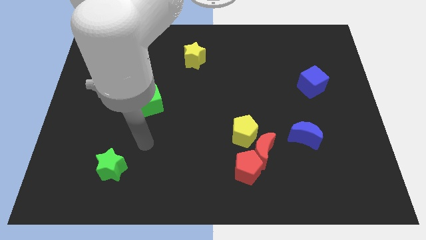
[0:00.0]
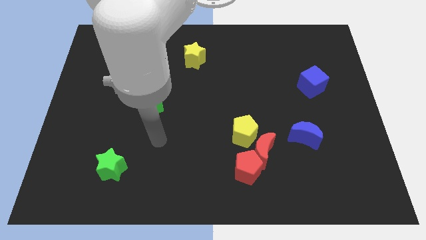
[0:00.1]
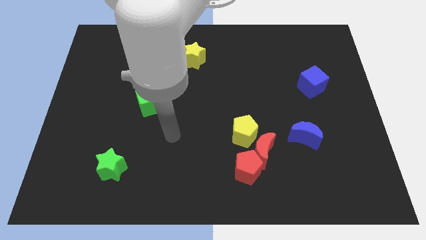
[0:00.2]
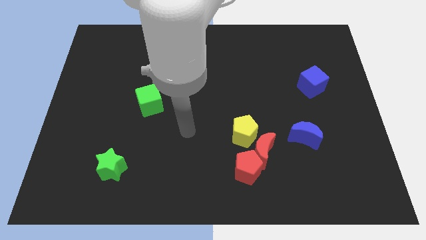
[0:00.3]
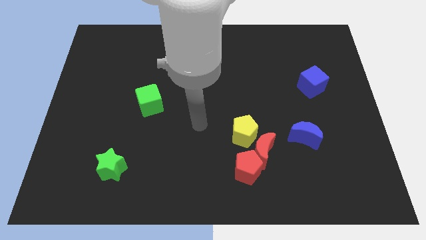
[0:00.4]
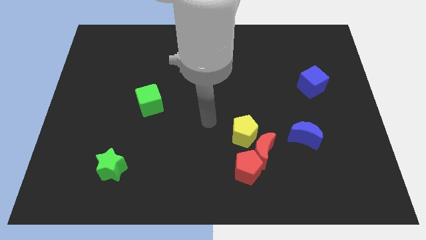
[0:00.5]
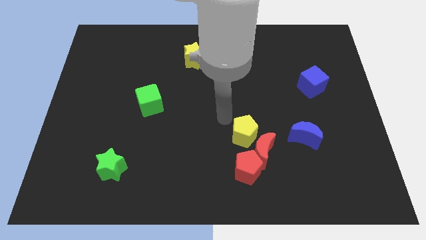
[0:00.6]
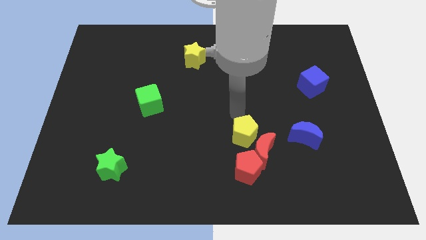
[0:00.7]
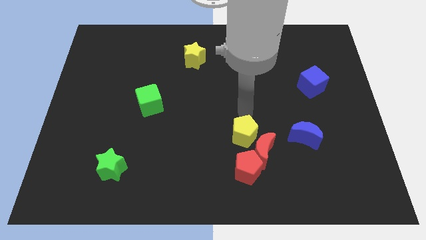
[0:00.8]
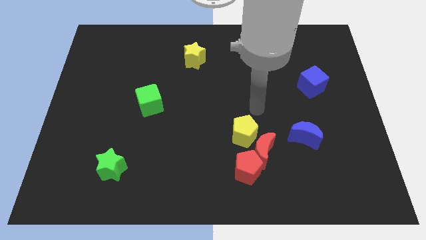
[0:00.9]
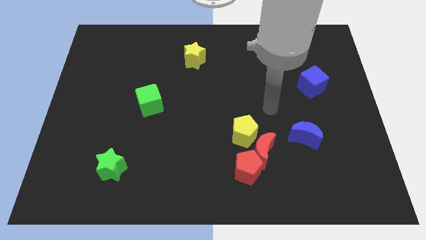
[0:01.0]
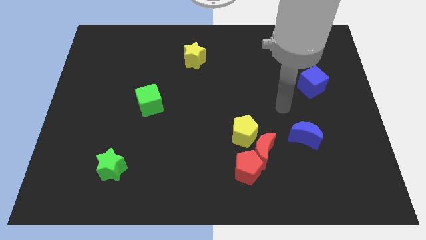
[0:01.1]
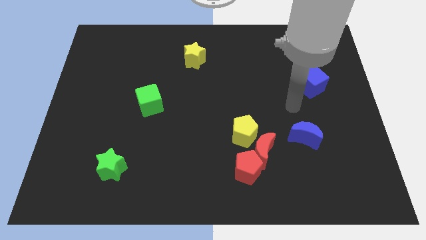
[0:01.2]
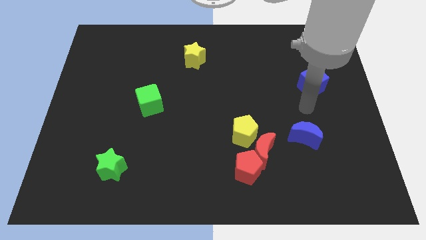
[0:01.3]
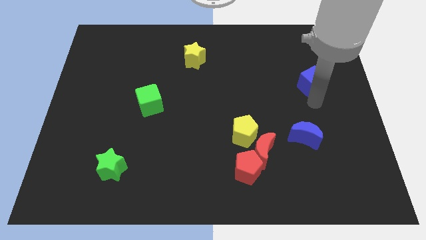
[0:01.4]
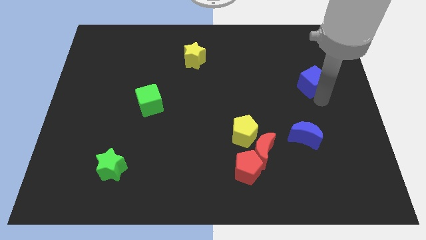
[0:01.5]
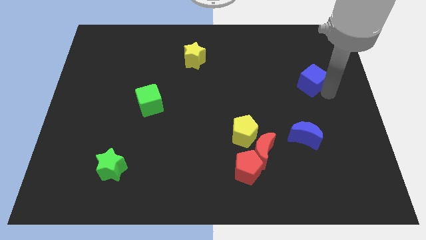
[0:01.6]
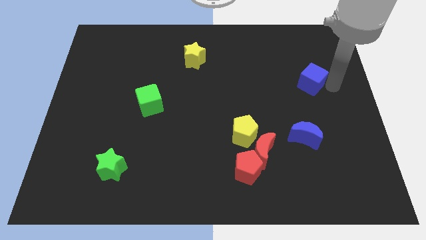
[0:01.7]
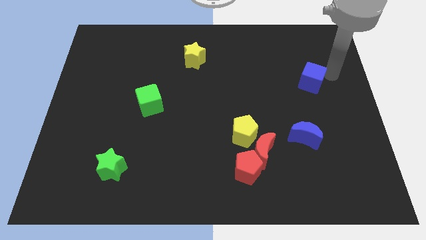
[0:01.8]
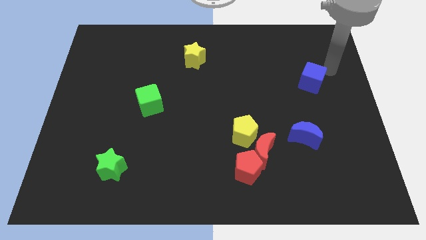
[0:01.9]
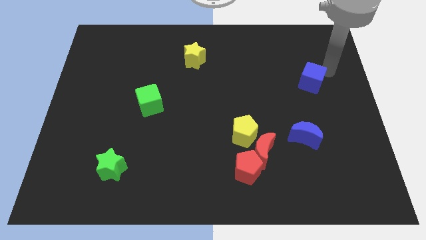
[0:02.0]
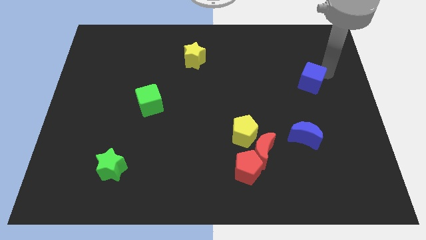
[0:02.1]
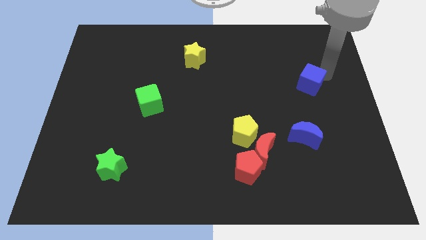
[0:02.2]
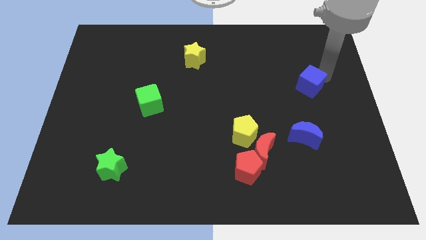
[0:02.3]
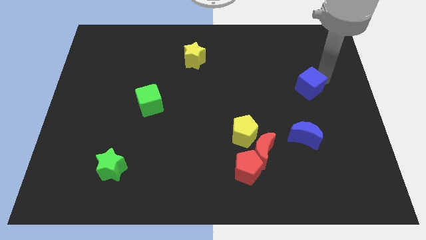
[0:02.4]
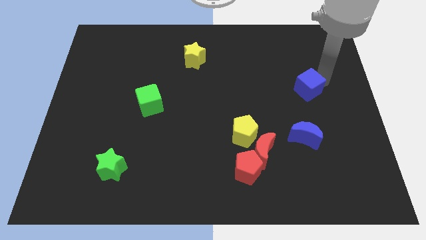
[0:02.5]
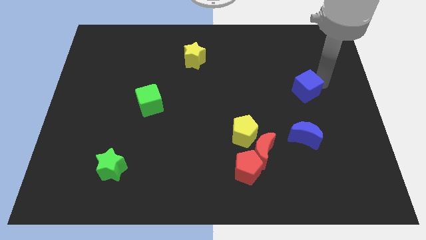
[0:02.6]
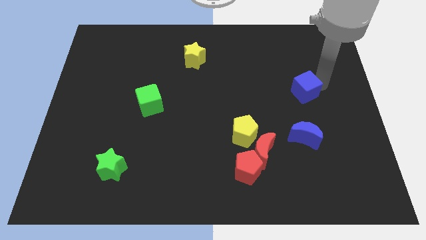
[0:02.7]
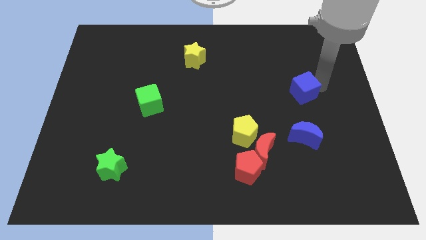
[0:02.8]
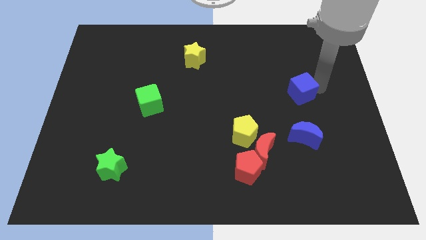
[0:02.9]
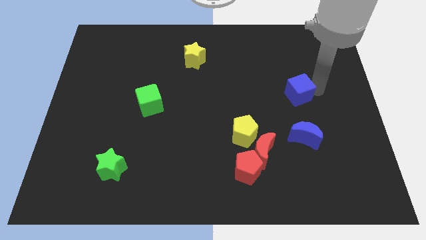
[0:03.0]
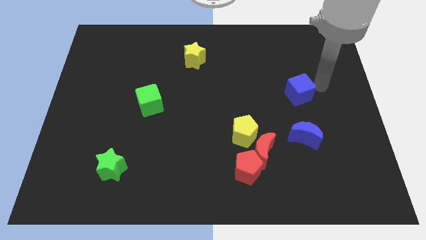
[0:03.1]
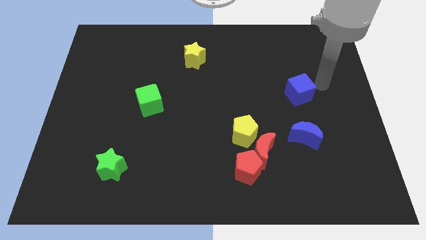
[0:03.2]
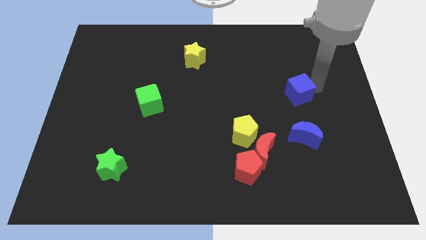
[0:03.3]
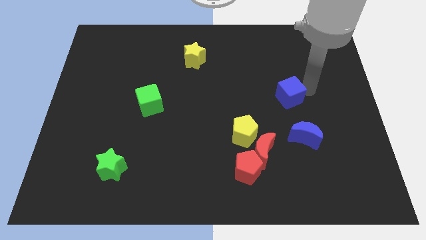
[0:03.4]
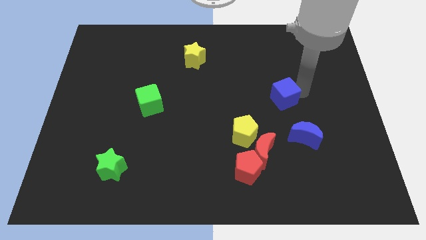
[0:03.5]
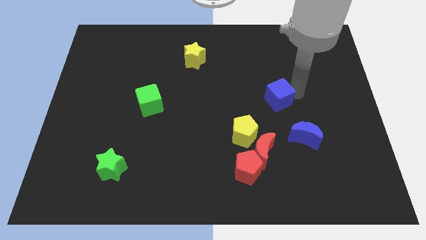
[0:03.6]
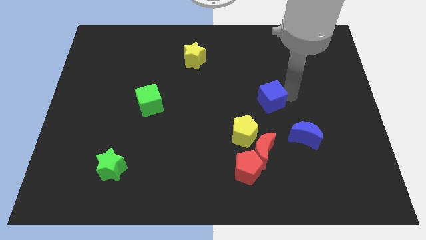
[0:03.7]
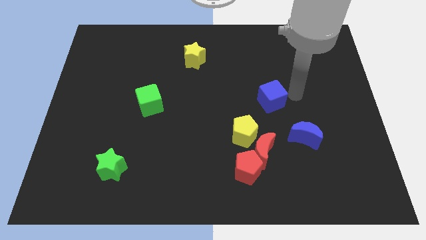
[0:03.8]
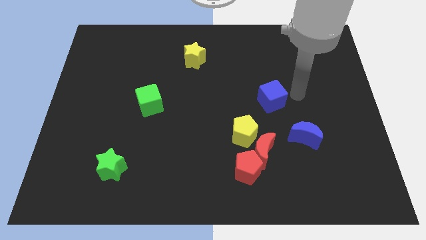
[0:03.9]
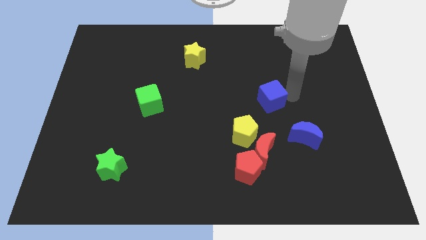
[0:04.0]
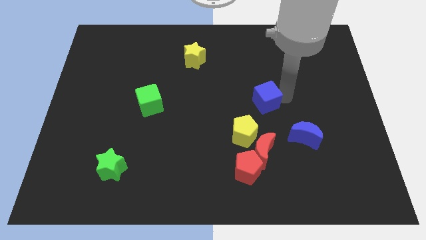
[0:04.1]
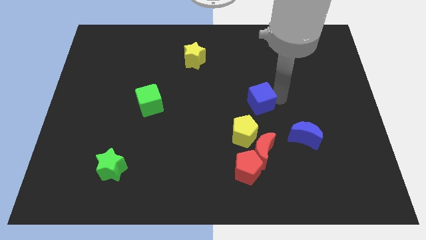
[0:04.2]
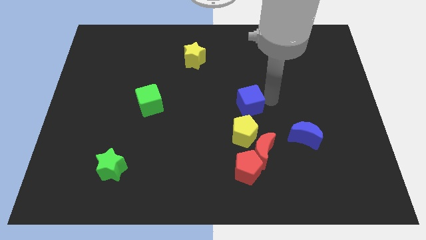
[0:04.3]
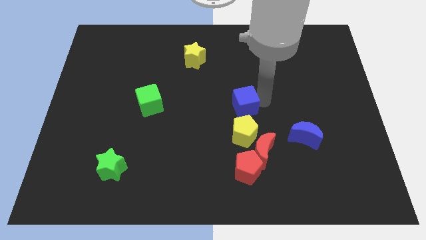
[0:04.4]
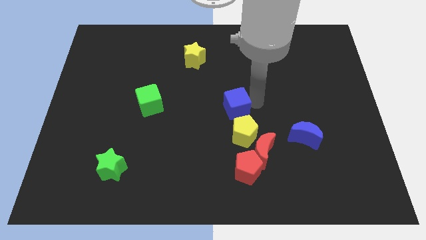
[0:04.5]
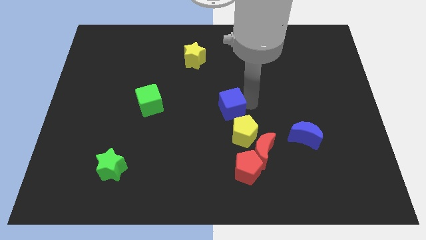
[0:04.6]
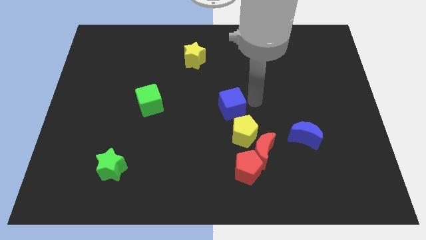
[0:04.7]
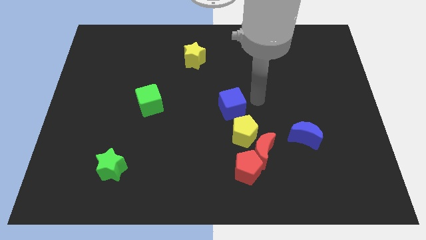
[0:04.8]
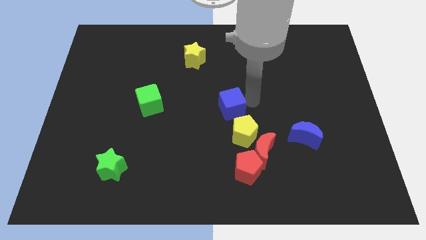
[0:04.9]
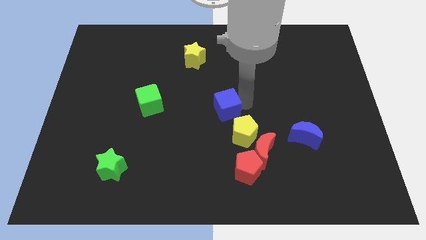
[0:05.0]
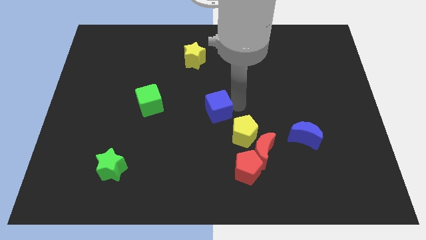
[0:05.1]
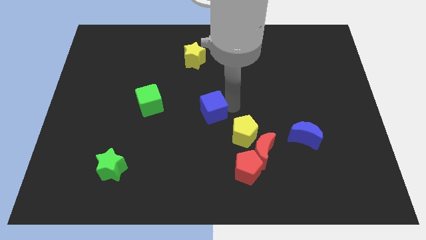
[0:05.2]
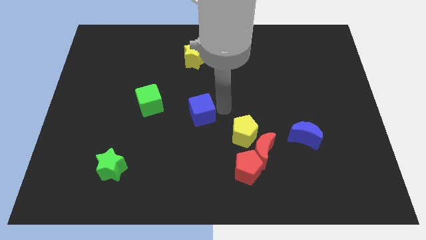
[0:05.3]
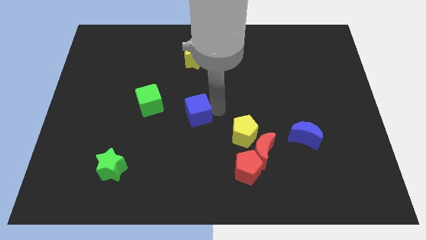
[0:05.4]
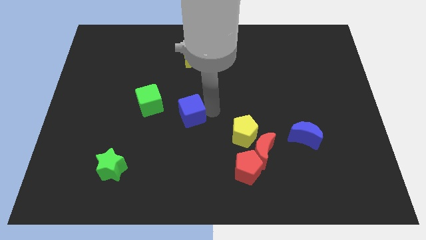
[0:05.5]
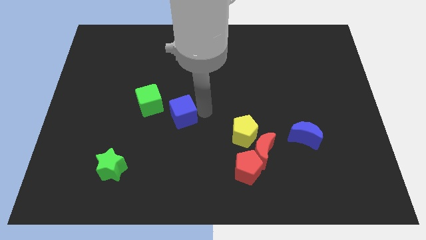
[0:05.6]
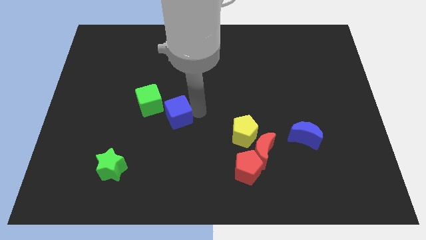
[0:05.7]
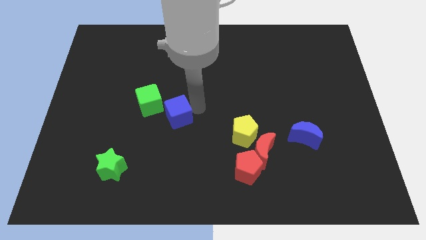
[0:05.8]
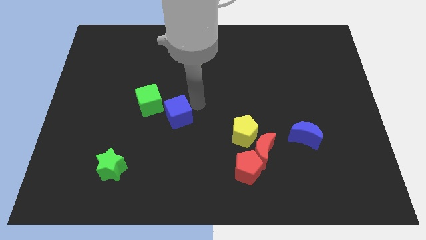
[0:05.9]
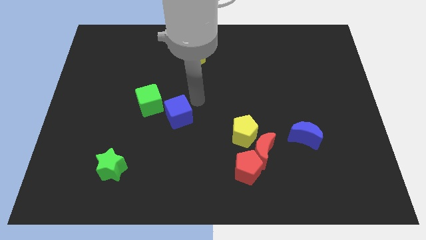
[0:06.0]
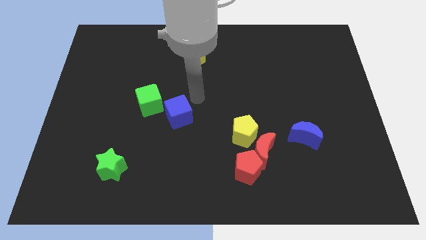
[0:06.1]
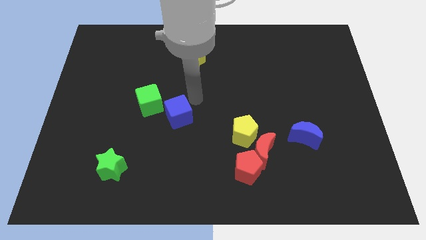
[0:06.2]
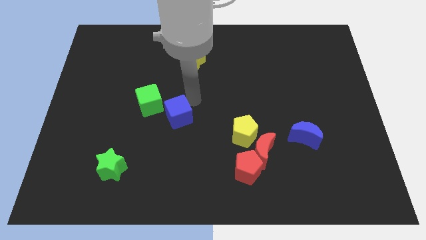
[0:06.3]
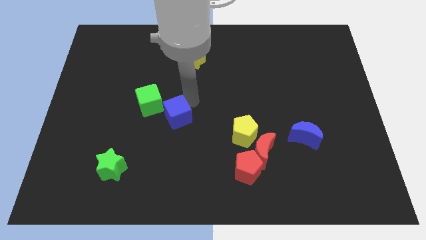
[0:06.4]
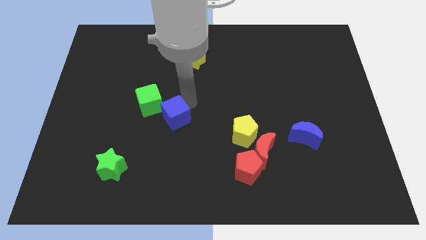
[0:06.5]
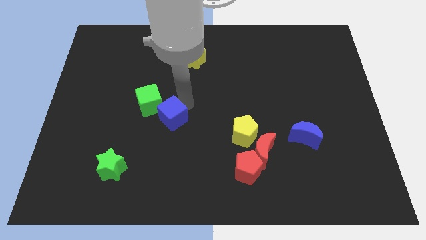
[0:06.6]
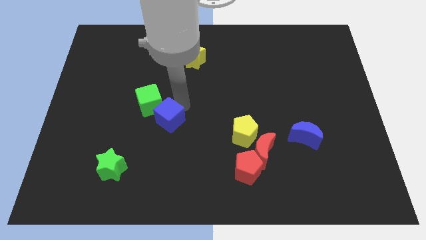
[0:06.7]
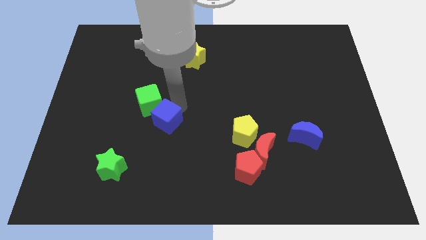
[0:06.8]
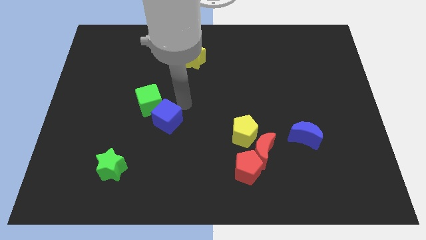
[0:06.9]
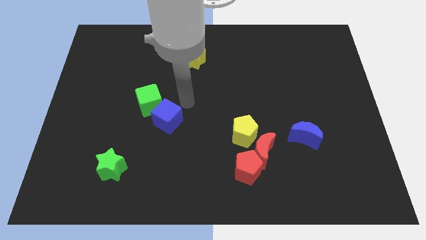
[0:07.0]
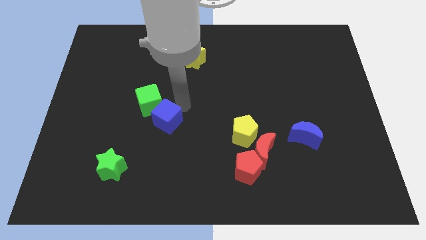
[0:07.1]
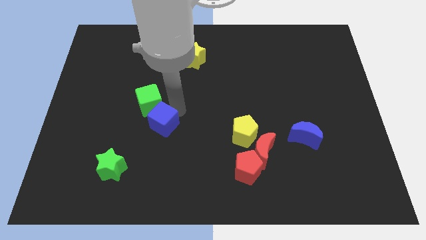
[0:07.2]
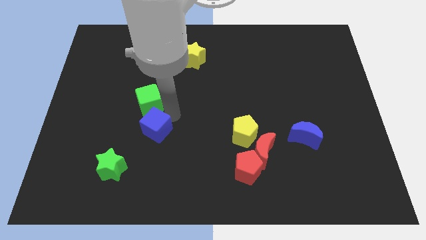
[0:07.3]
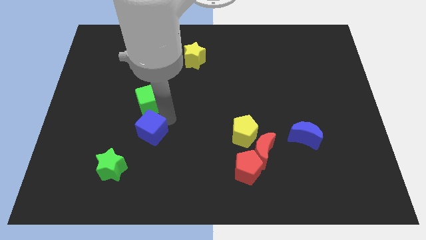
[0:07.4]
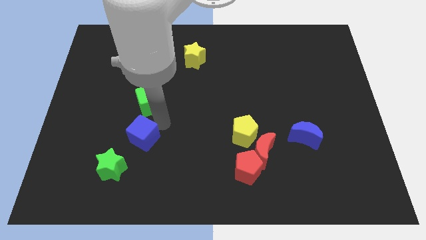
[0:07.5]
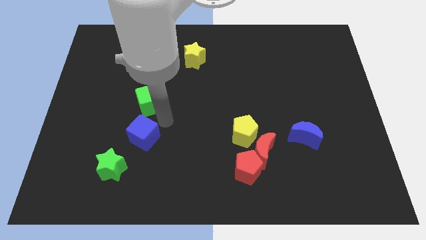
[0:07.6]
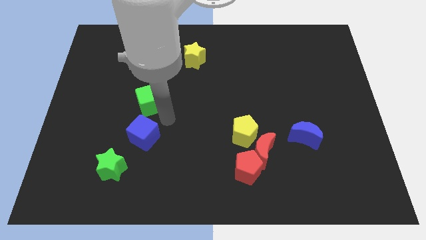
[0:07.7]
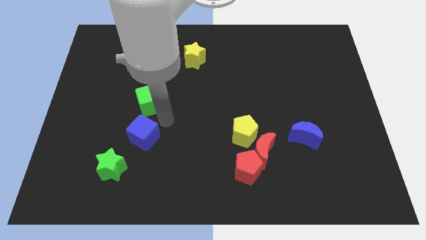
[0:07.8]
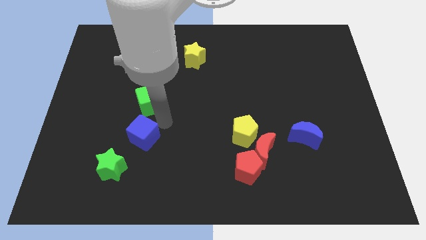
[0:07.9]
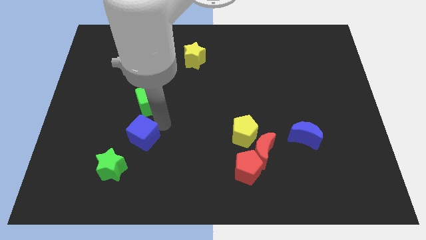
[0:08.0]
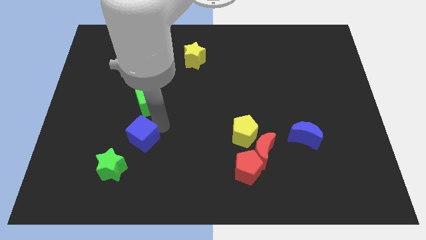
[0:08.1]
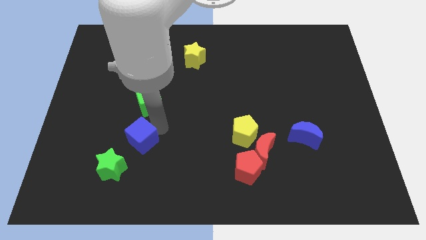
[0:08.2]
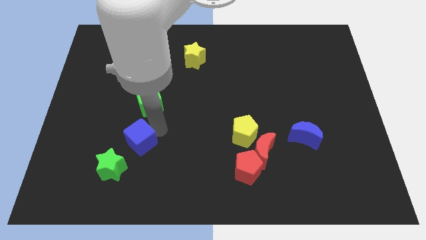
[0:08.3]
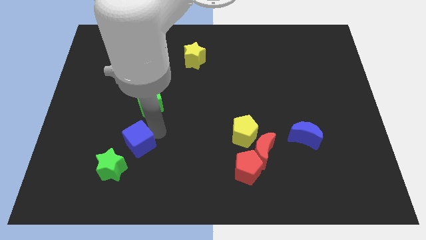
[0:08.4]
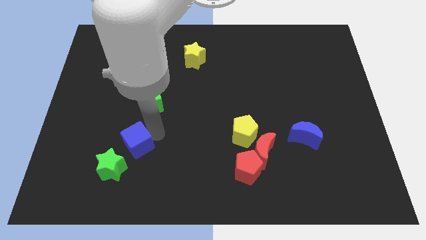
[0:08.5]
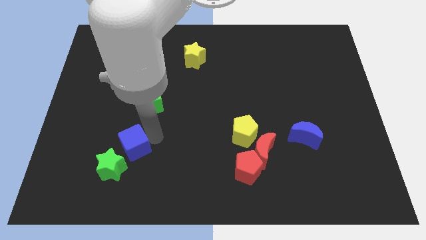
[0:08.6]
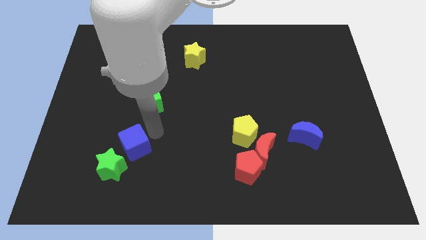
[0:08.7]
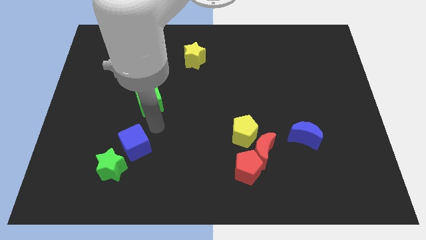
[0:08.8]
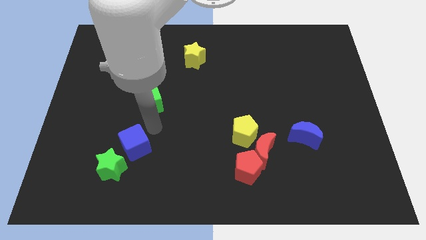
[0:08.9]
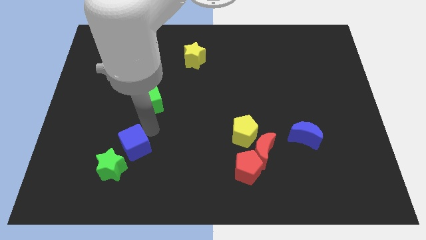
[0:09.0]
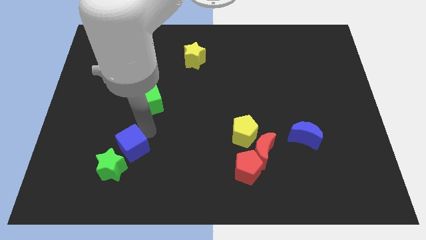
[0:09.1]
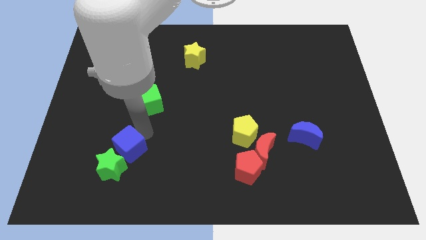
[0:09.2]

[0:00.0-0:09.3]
slide the blue cube next to the green star
